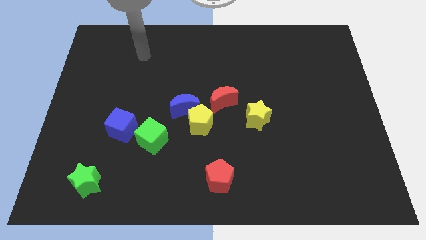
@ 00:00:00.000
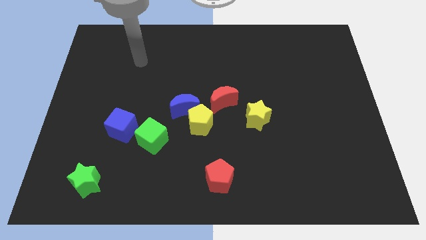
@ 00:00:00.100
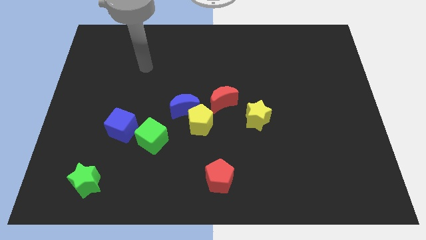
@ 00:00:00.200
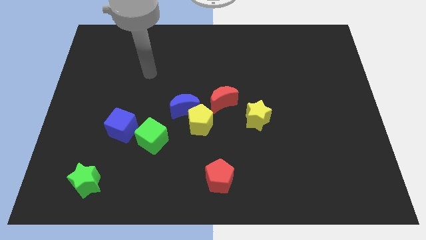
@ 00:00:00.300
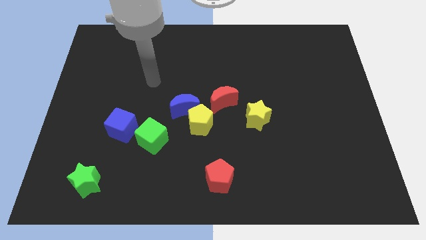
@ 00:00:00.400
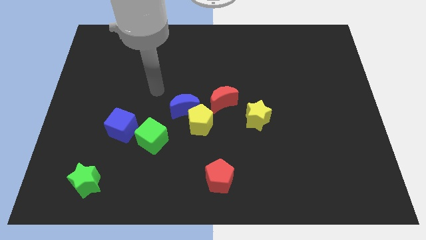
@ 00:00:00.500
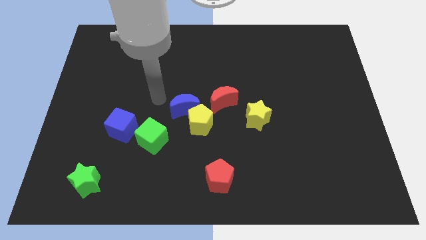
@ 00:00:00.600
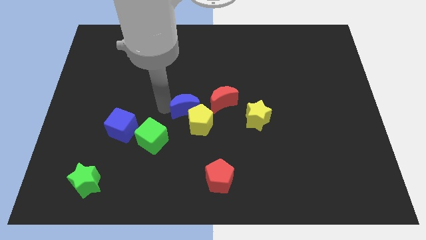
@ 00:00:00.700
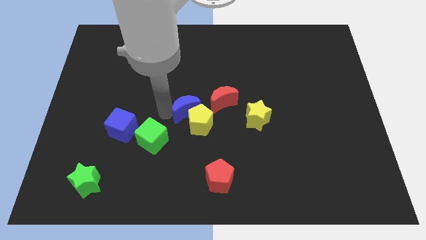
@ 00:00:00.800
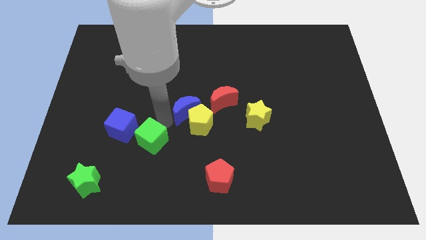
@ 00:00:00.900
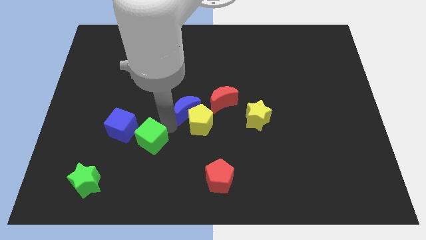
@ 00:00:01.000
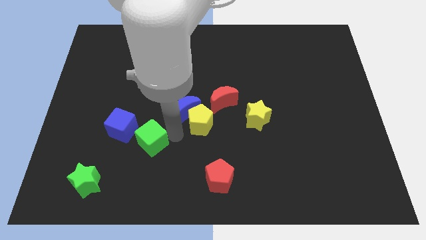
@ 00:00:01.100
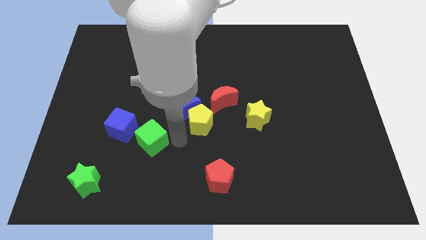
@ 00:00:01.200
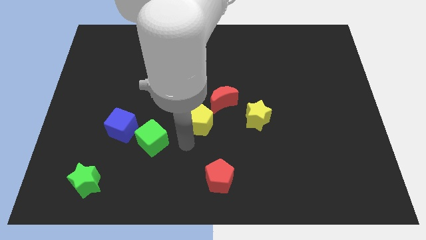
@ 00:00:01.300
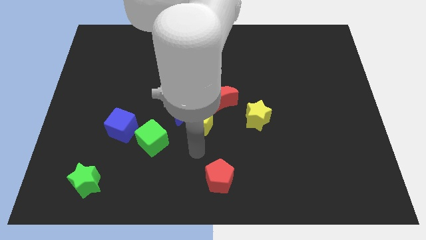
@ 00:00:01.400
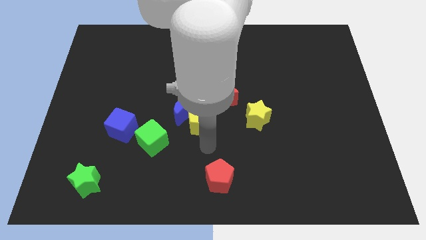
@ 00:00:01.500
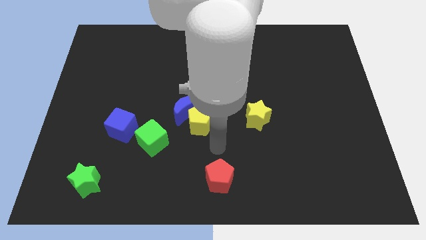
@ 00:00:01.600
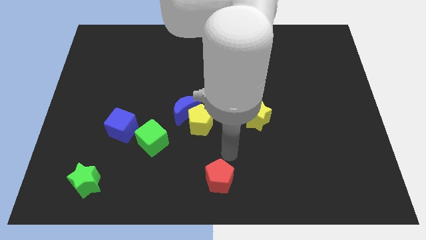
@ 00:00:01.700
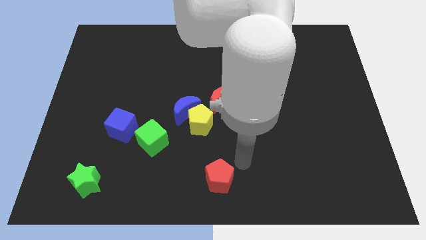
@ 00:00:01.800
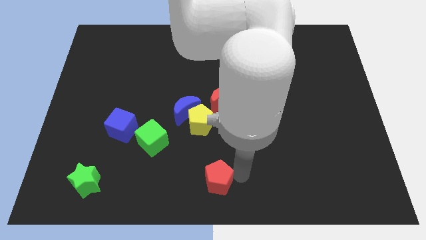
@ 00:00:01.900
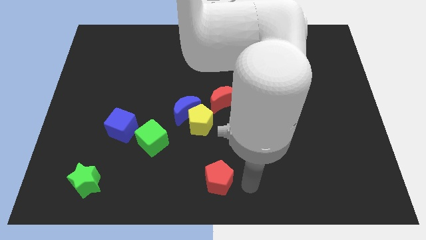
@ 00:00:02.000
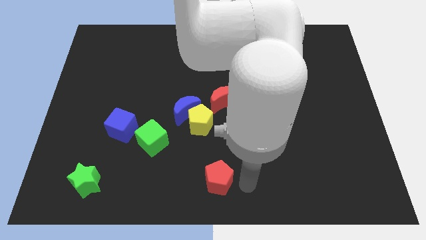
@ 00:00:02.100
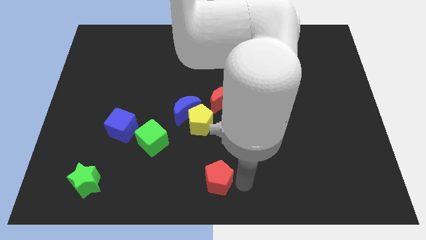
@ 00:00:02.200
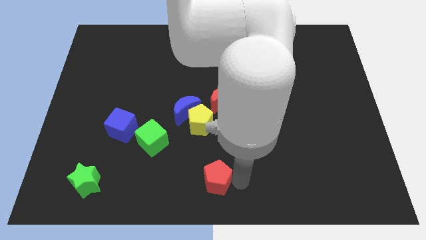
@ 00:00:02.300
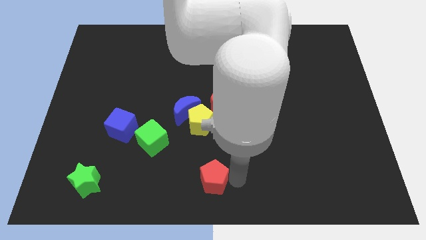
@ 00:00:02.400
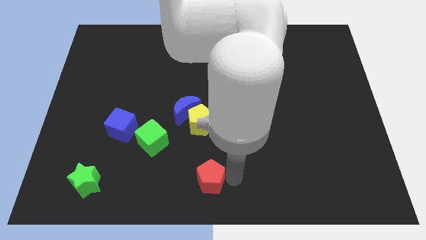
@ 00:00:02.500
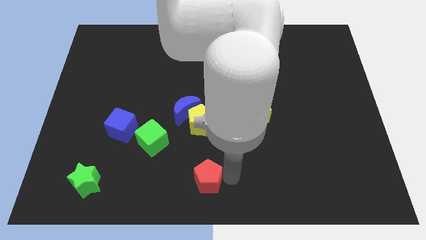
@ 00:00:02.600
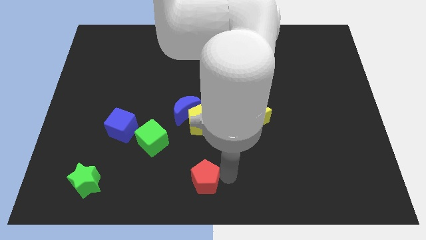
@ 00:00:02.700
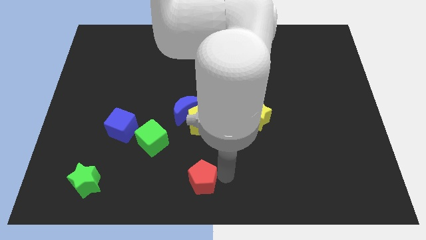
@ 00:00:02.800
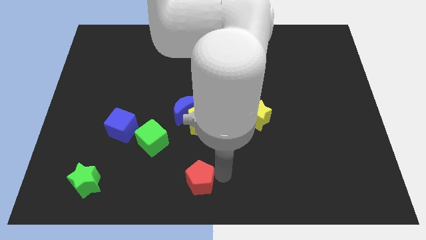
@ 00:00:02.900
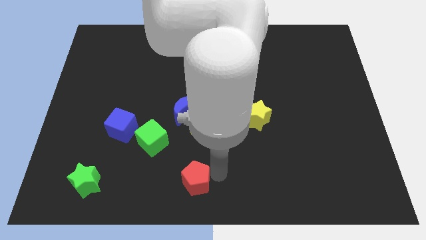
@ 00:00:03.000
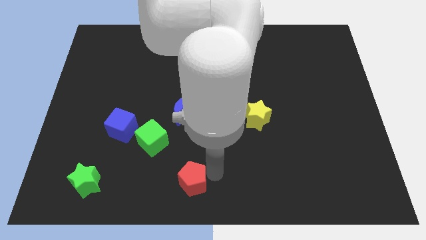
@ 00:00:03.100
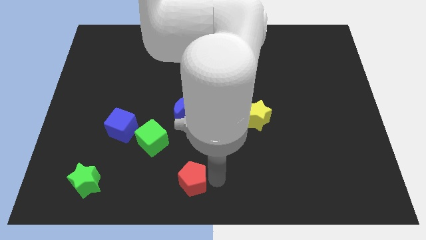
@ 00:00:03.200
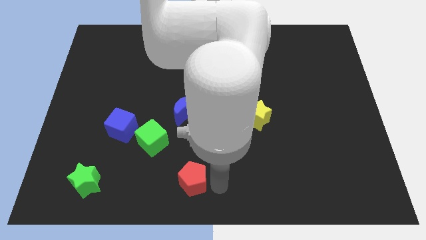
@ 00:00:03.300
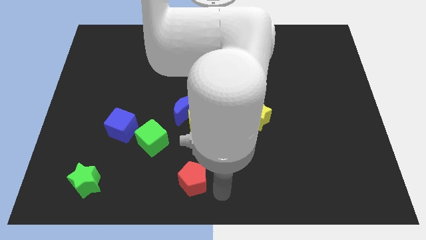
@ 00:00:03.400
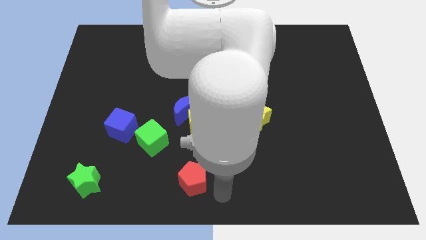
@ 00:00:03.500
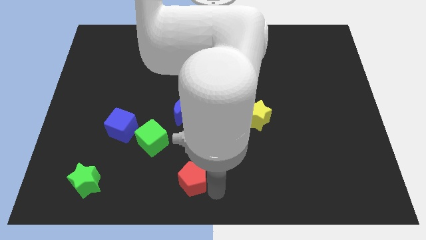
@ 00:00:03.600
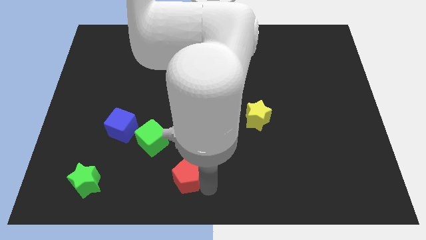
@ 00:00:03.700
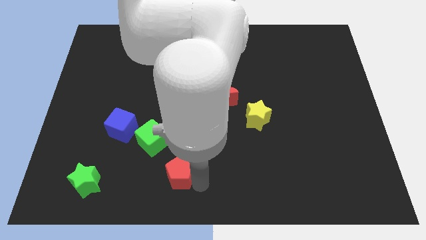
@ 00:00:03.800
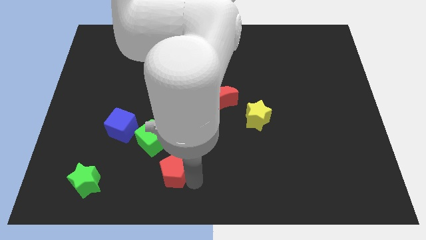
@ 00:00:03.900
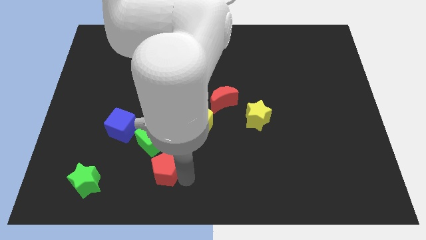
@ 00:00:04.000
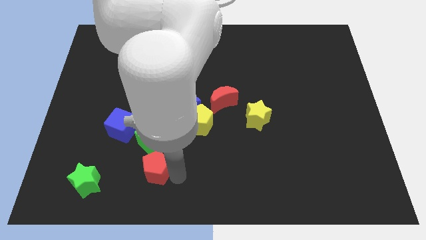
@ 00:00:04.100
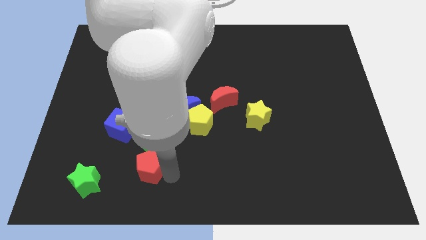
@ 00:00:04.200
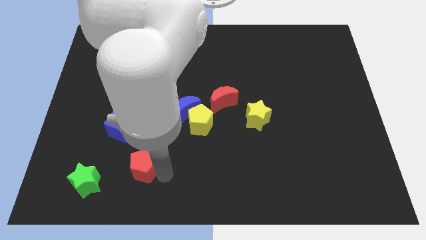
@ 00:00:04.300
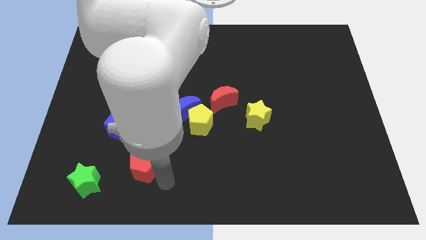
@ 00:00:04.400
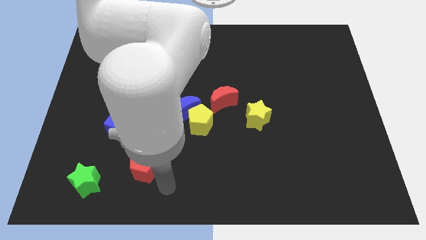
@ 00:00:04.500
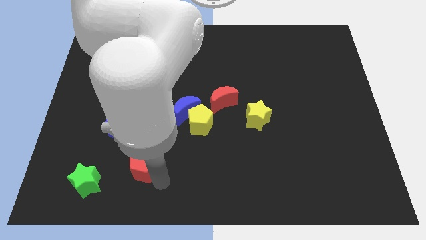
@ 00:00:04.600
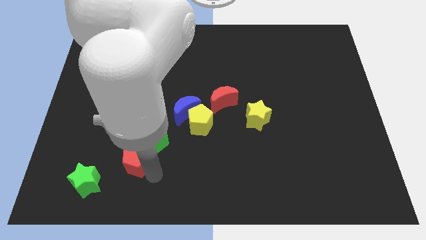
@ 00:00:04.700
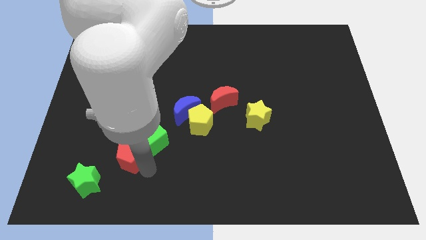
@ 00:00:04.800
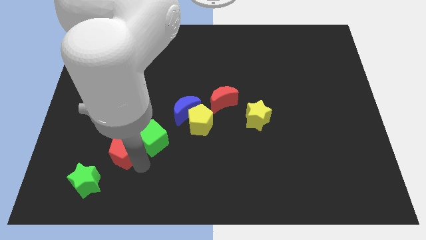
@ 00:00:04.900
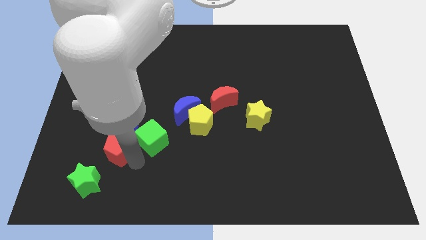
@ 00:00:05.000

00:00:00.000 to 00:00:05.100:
put the red pentagon close to the blue cube

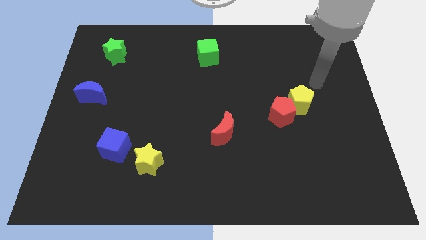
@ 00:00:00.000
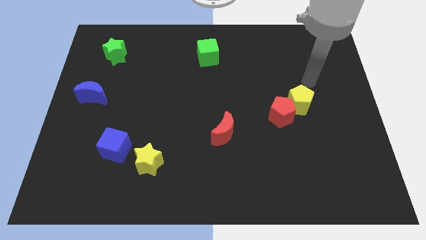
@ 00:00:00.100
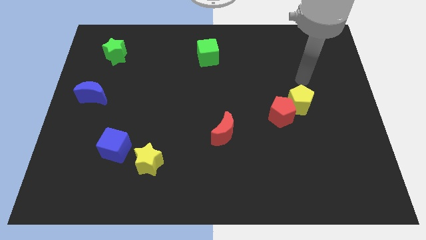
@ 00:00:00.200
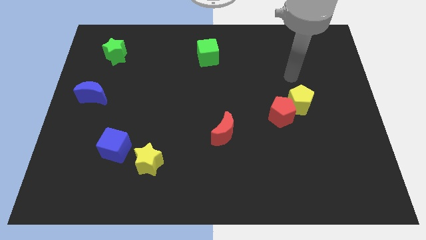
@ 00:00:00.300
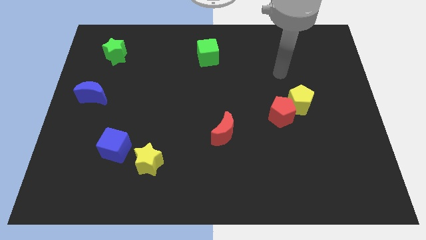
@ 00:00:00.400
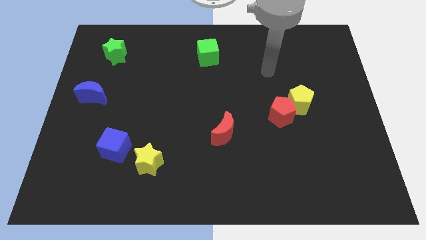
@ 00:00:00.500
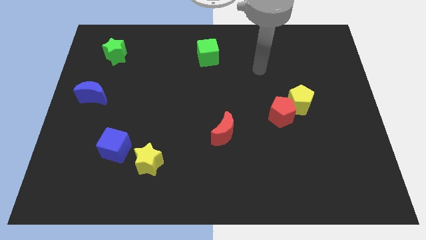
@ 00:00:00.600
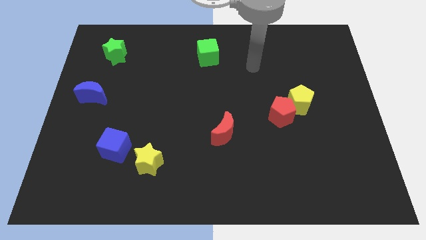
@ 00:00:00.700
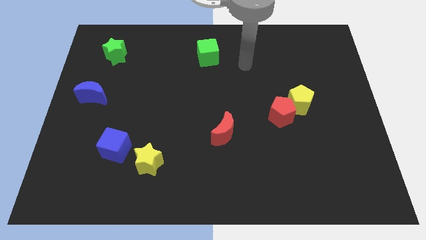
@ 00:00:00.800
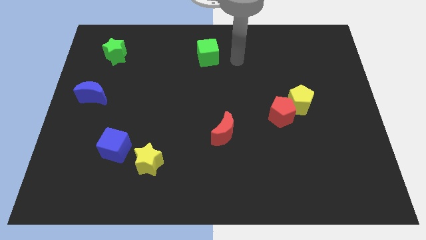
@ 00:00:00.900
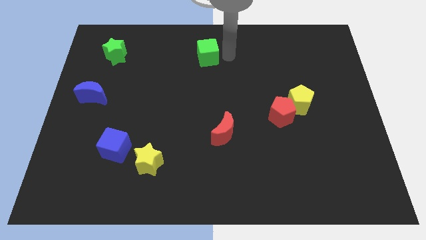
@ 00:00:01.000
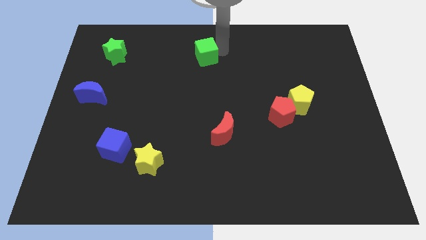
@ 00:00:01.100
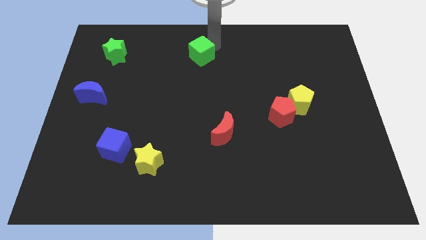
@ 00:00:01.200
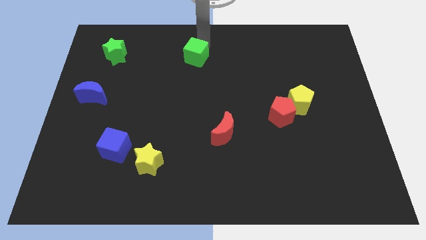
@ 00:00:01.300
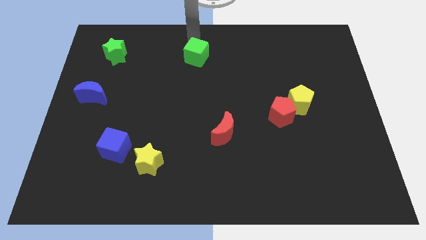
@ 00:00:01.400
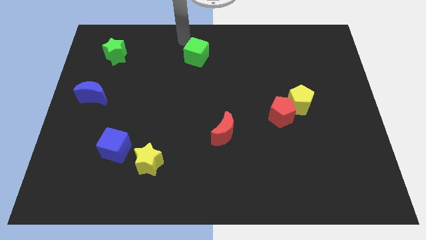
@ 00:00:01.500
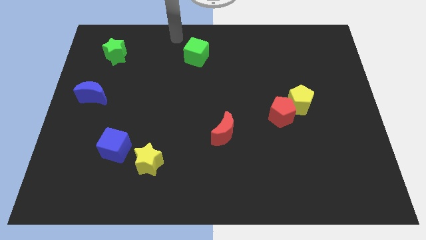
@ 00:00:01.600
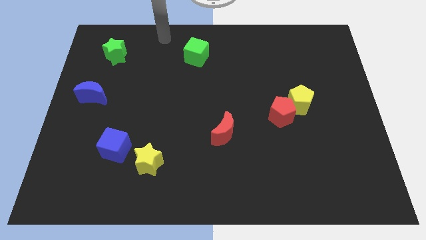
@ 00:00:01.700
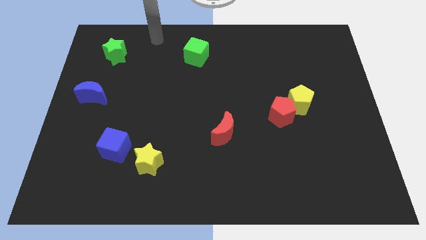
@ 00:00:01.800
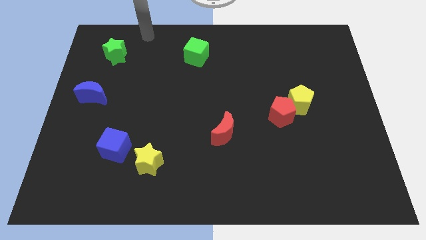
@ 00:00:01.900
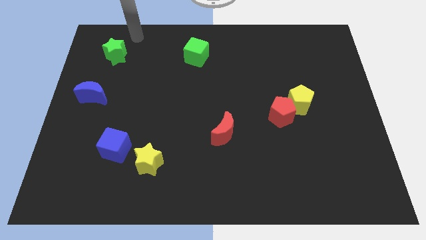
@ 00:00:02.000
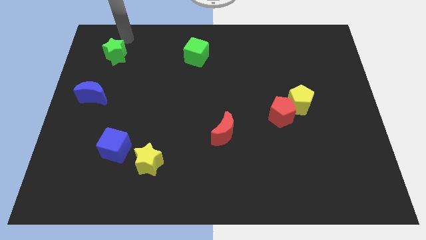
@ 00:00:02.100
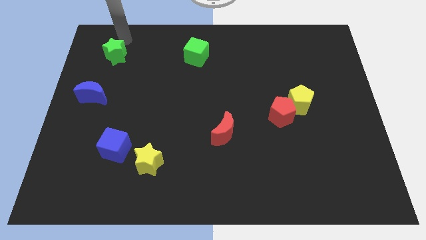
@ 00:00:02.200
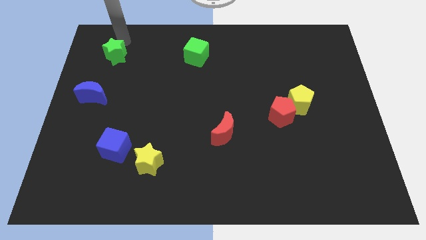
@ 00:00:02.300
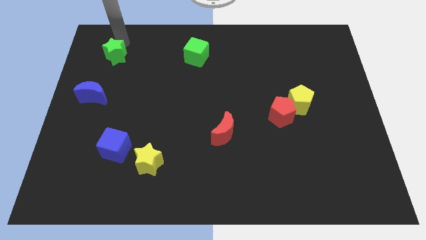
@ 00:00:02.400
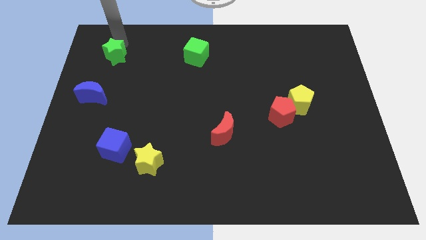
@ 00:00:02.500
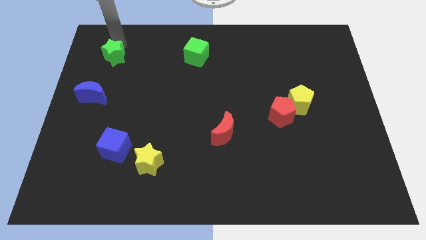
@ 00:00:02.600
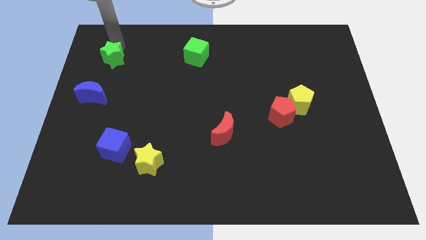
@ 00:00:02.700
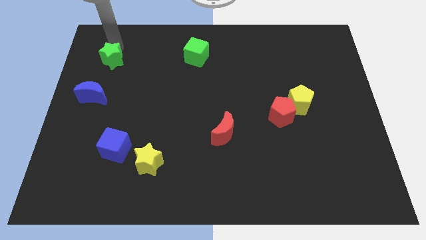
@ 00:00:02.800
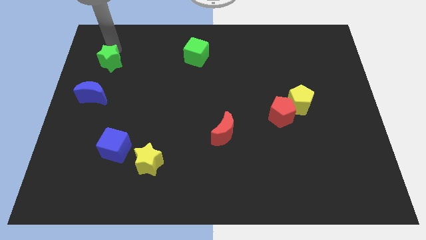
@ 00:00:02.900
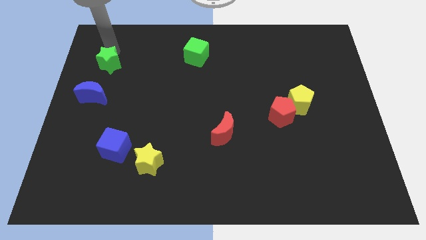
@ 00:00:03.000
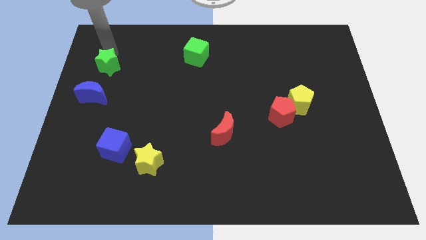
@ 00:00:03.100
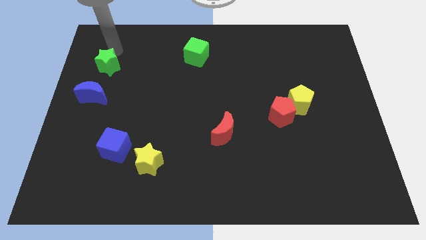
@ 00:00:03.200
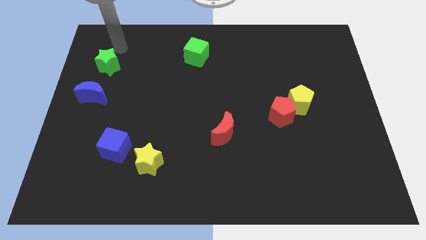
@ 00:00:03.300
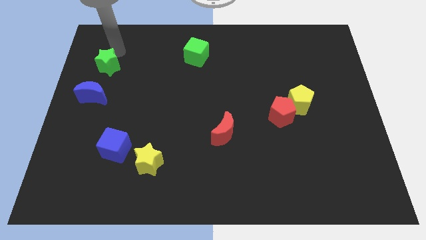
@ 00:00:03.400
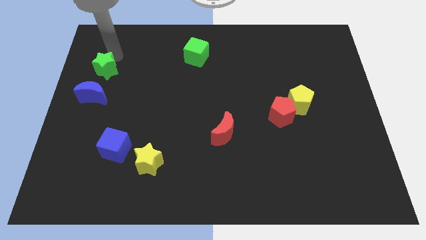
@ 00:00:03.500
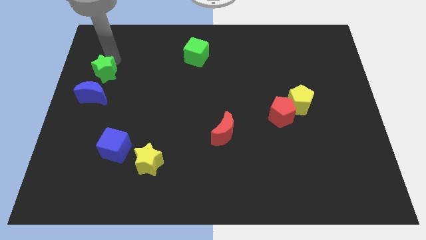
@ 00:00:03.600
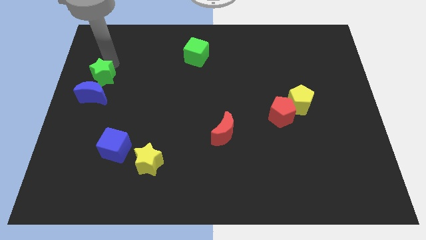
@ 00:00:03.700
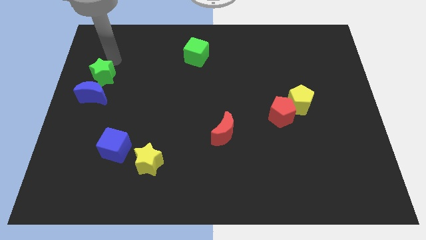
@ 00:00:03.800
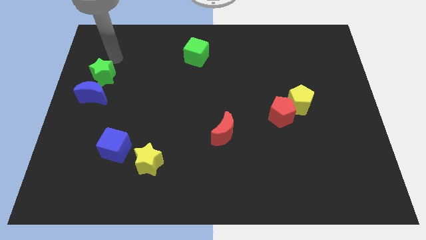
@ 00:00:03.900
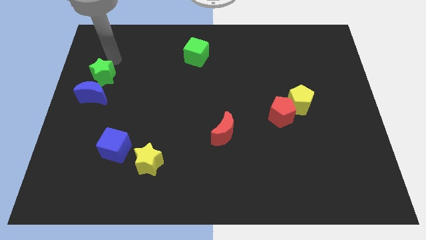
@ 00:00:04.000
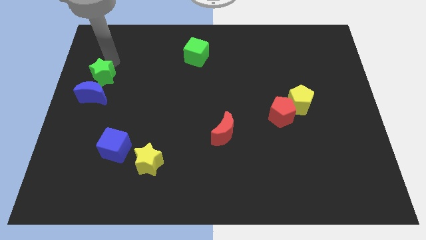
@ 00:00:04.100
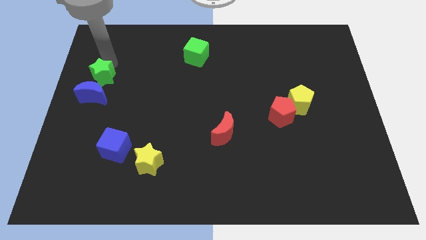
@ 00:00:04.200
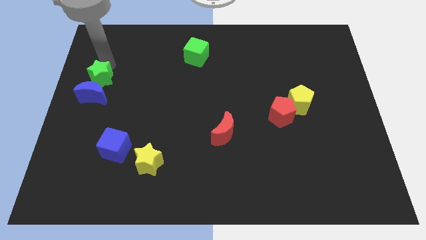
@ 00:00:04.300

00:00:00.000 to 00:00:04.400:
move the green star close to the blue moon
